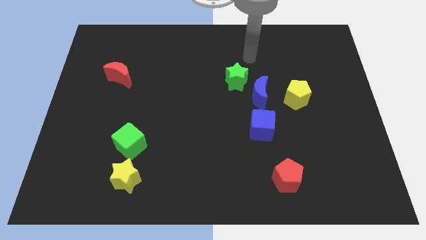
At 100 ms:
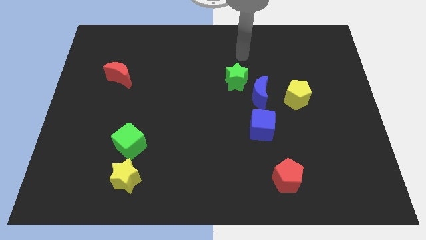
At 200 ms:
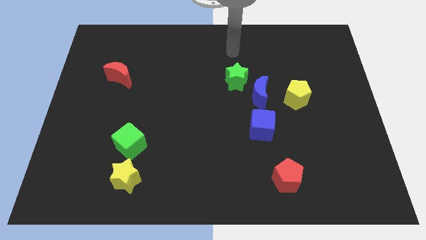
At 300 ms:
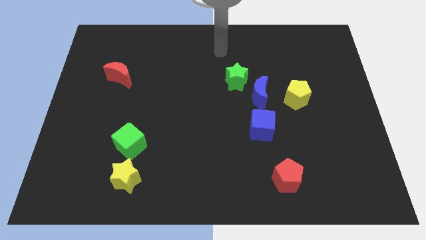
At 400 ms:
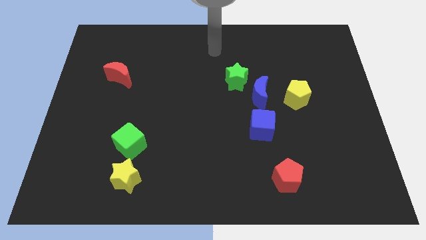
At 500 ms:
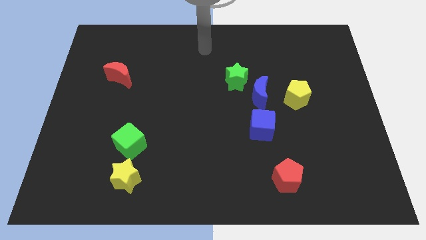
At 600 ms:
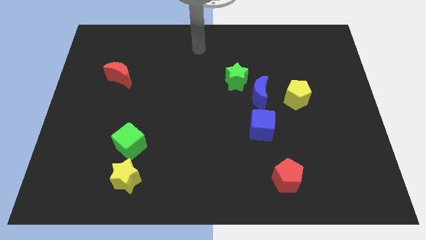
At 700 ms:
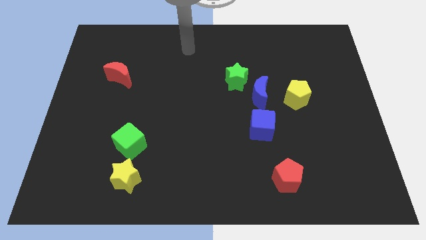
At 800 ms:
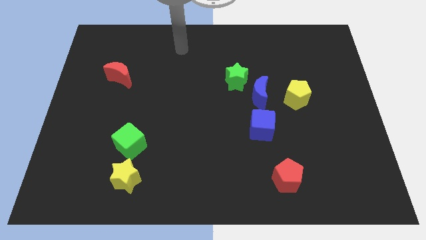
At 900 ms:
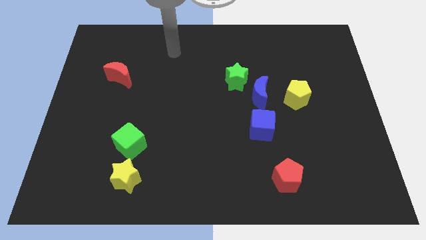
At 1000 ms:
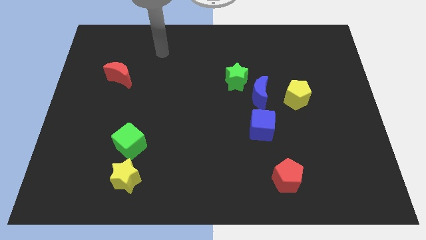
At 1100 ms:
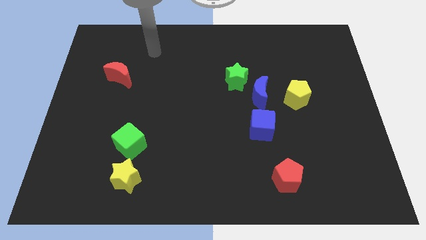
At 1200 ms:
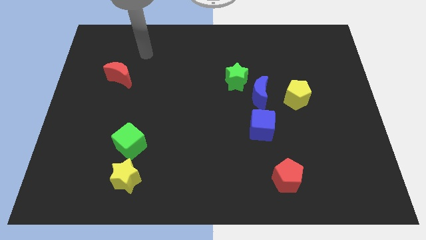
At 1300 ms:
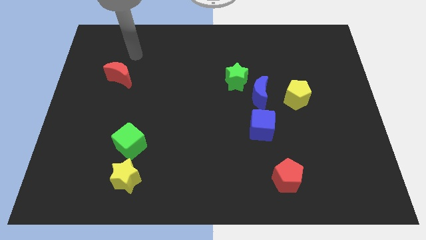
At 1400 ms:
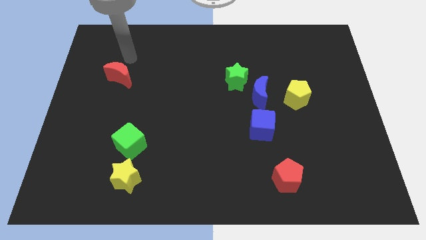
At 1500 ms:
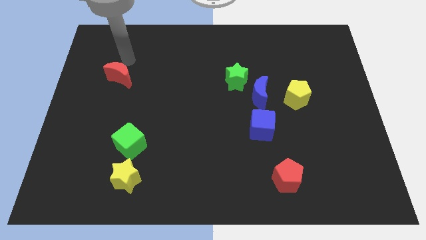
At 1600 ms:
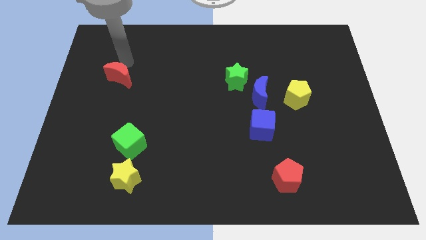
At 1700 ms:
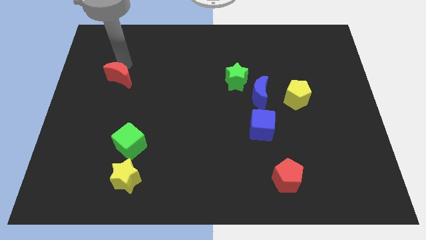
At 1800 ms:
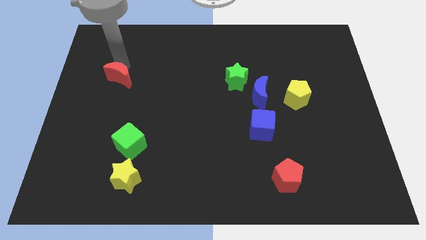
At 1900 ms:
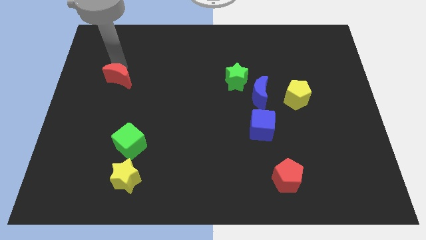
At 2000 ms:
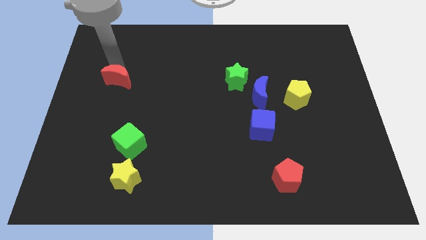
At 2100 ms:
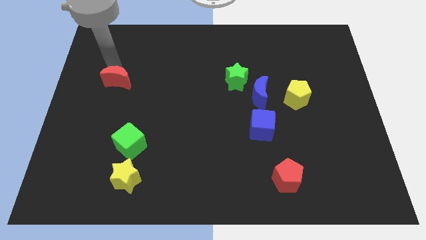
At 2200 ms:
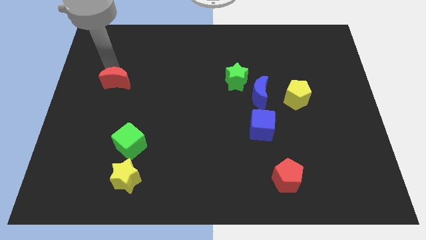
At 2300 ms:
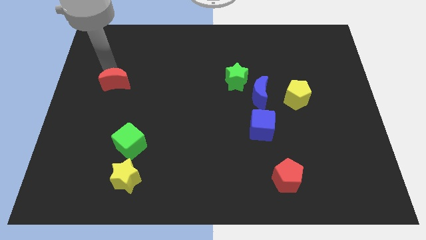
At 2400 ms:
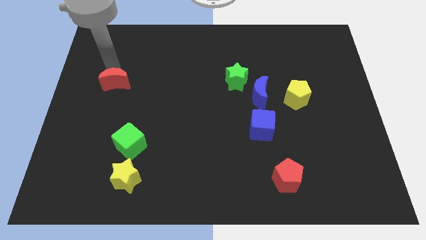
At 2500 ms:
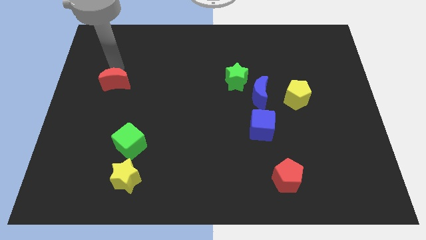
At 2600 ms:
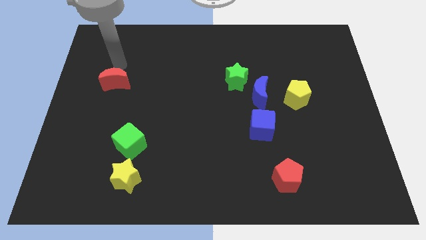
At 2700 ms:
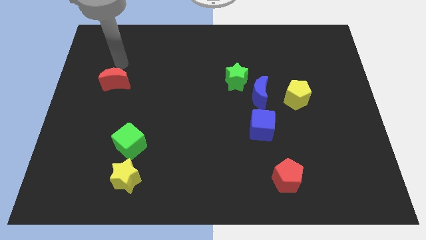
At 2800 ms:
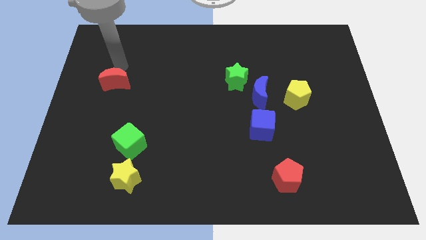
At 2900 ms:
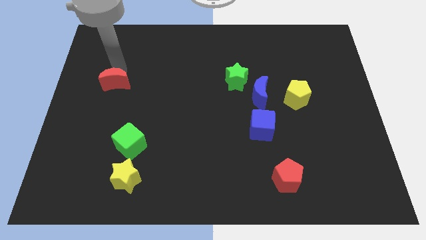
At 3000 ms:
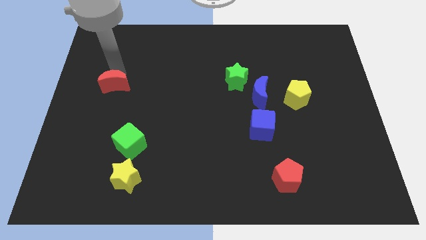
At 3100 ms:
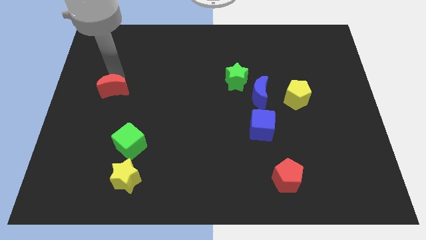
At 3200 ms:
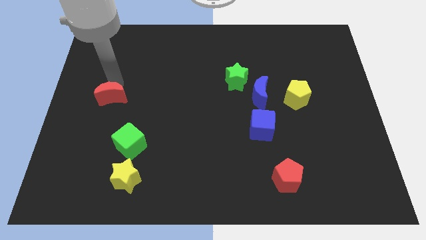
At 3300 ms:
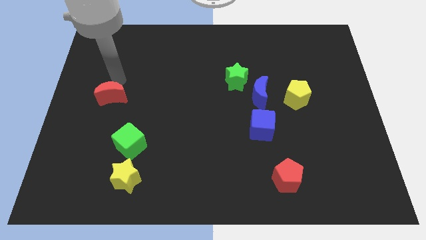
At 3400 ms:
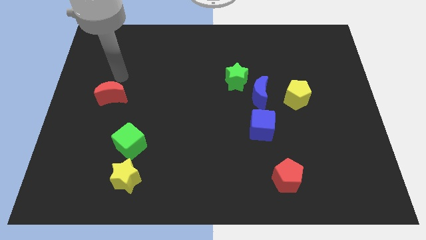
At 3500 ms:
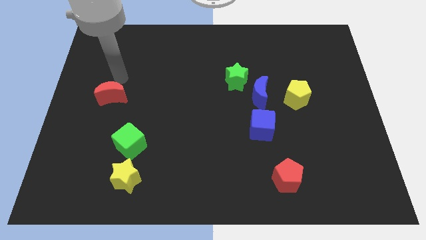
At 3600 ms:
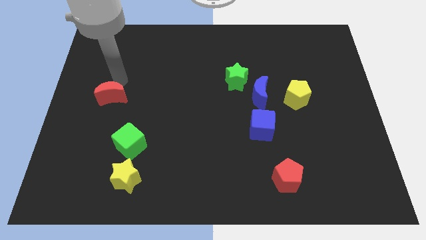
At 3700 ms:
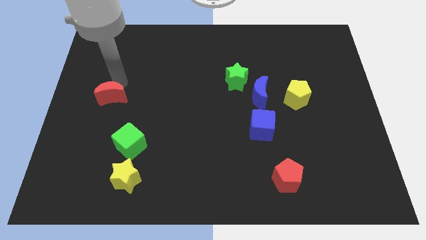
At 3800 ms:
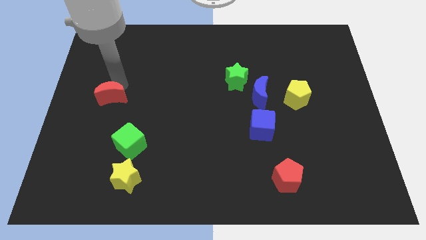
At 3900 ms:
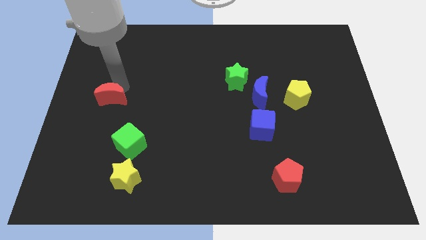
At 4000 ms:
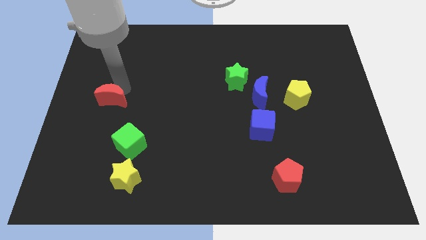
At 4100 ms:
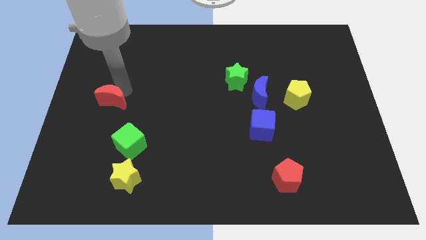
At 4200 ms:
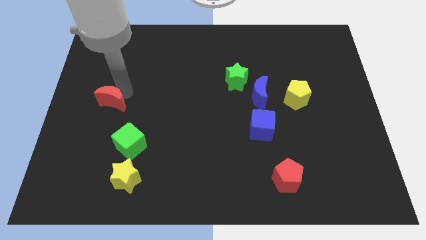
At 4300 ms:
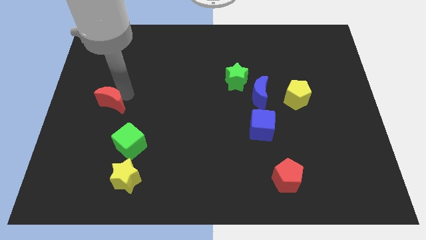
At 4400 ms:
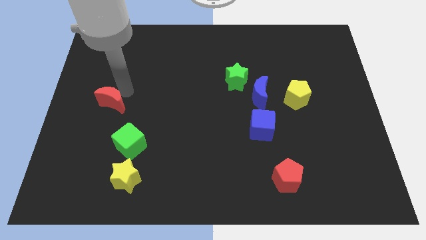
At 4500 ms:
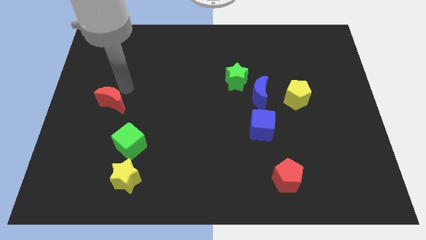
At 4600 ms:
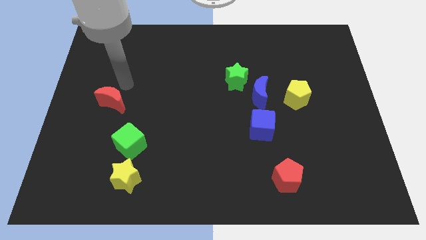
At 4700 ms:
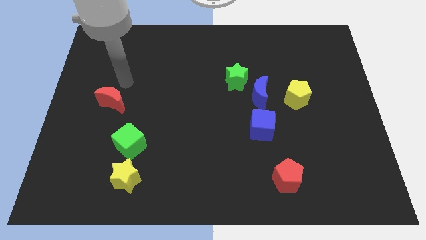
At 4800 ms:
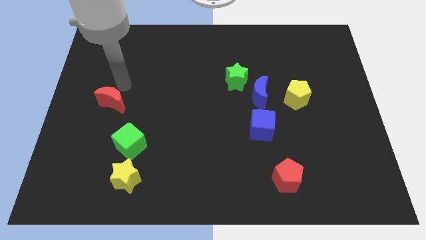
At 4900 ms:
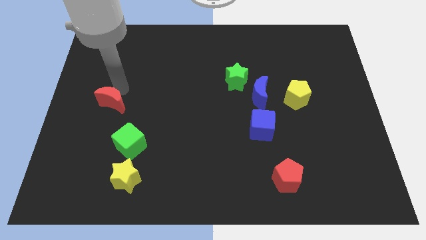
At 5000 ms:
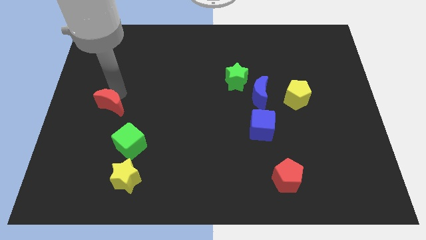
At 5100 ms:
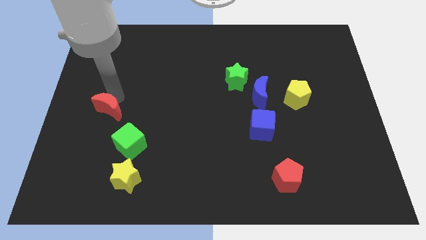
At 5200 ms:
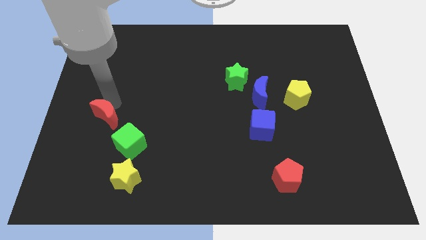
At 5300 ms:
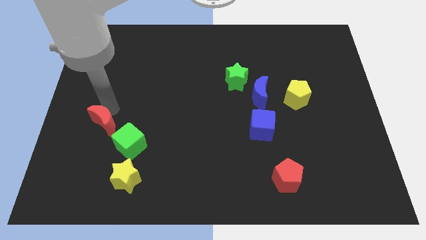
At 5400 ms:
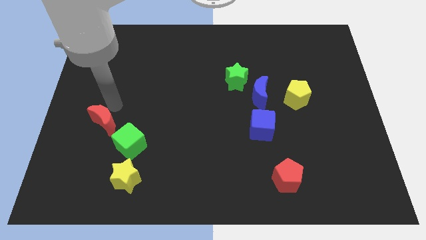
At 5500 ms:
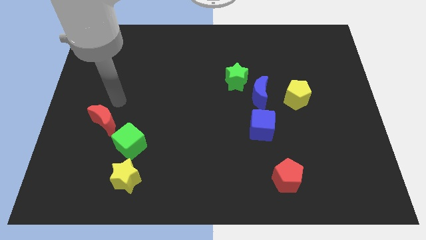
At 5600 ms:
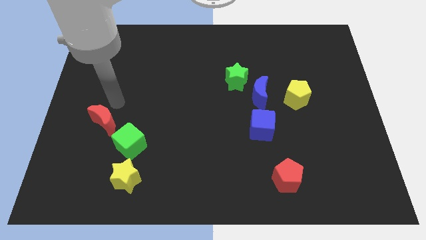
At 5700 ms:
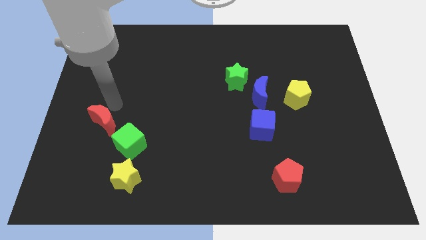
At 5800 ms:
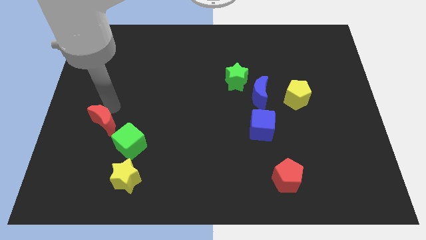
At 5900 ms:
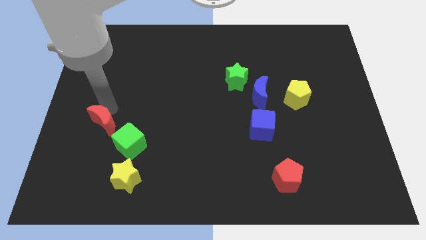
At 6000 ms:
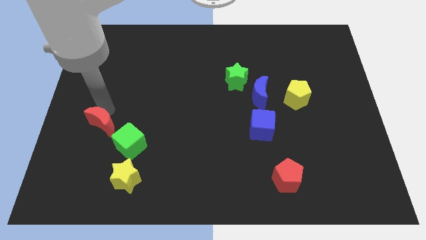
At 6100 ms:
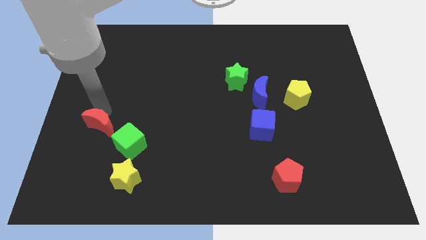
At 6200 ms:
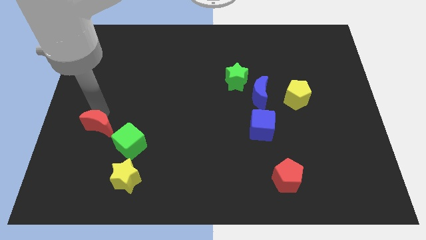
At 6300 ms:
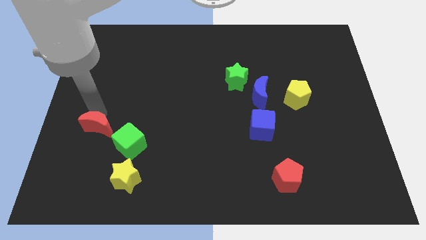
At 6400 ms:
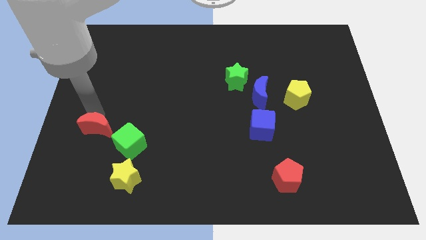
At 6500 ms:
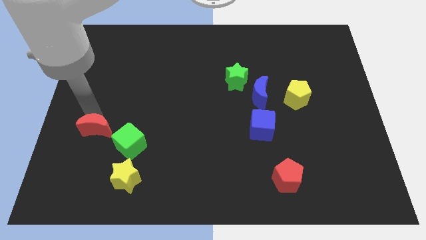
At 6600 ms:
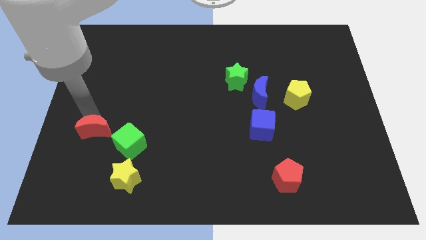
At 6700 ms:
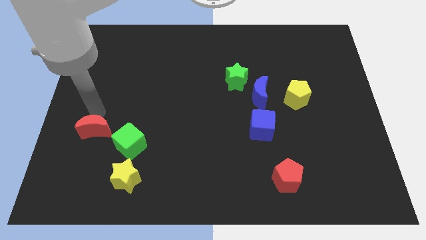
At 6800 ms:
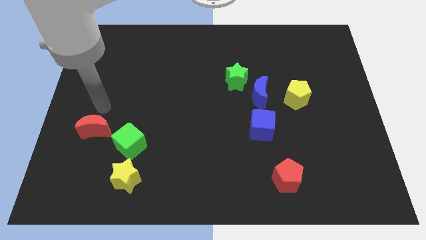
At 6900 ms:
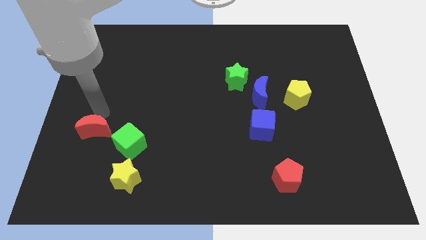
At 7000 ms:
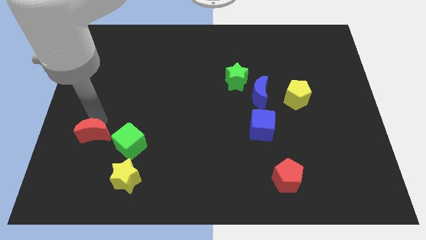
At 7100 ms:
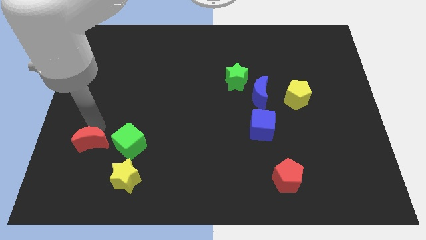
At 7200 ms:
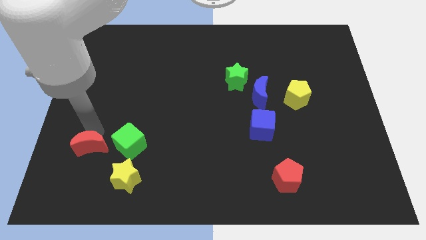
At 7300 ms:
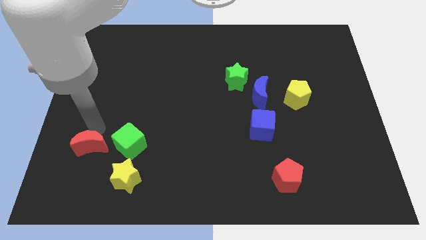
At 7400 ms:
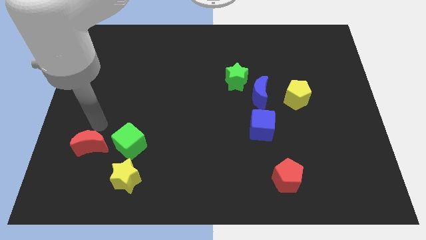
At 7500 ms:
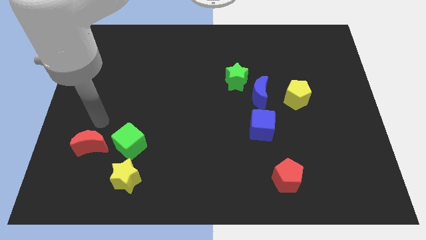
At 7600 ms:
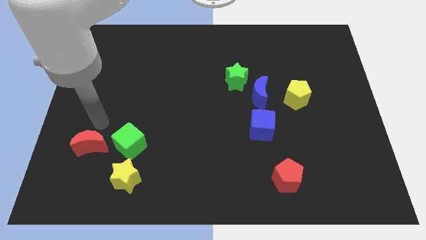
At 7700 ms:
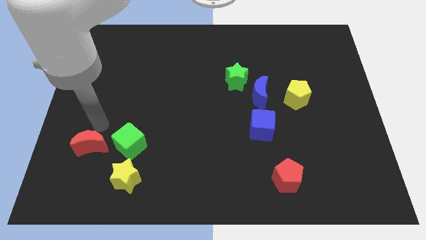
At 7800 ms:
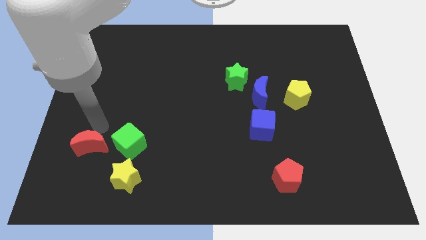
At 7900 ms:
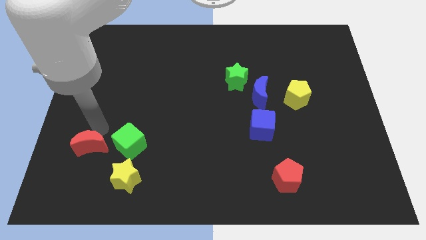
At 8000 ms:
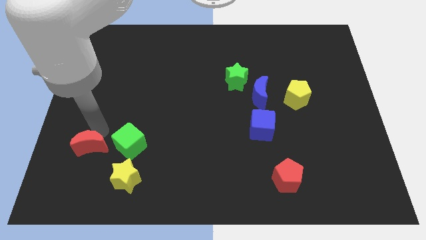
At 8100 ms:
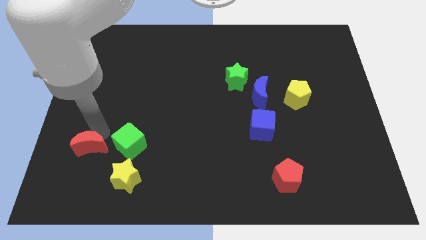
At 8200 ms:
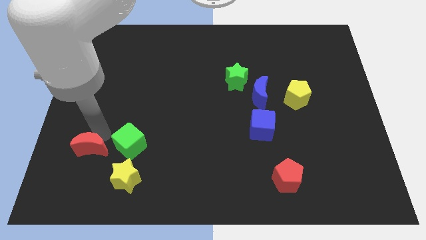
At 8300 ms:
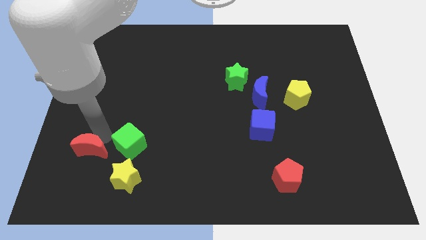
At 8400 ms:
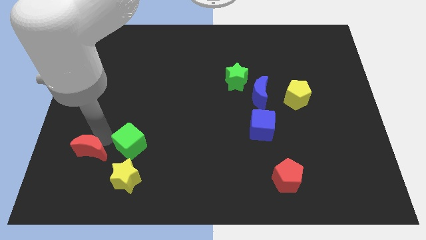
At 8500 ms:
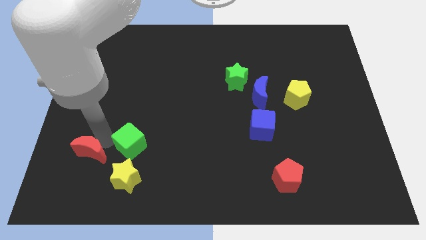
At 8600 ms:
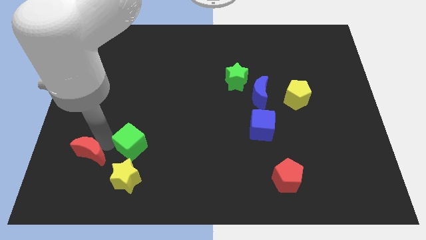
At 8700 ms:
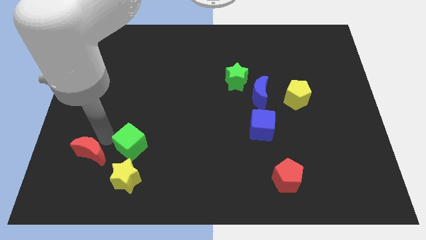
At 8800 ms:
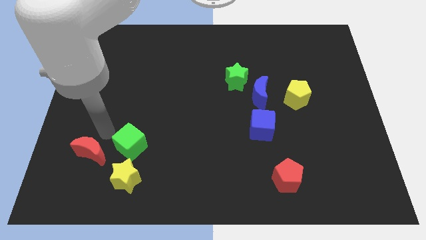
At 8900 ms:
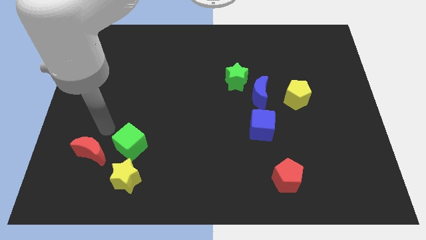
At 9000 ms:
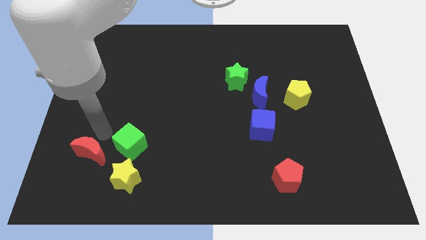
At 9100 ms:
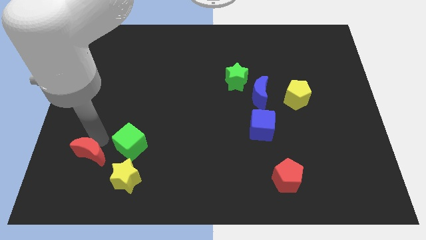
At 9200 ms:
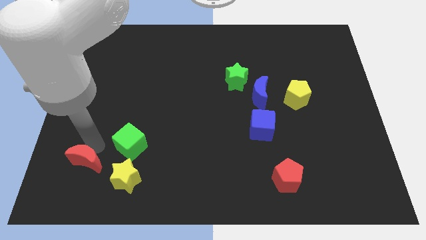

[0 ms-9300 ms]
slide the red moon to the left side of the yellow star
